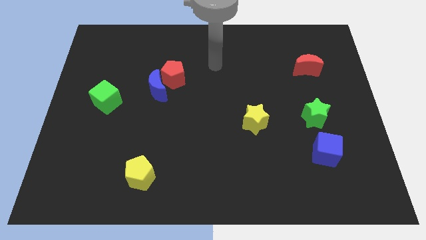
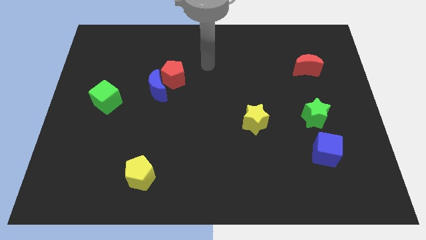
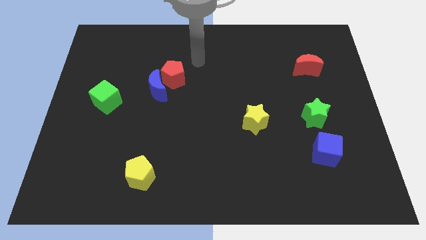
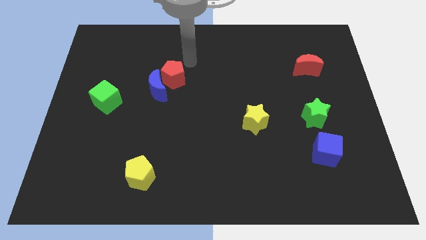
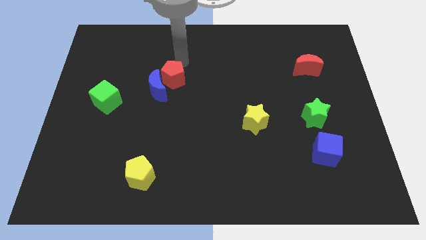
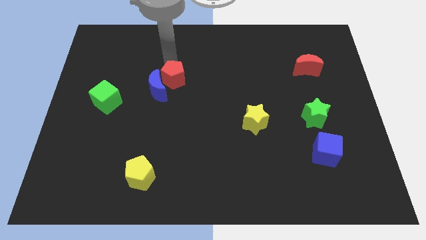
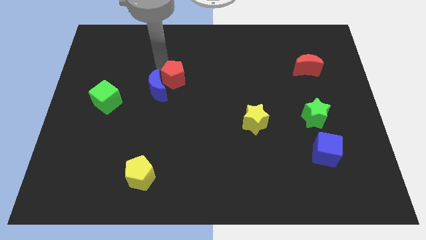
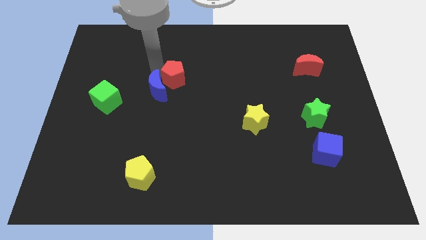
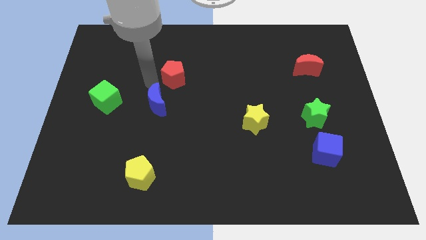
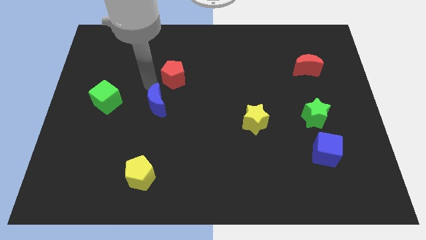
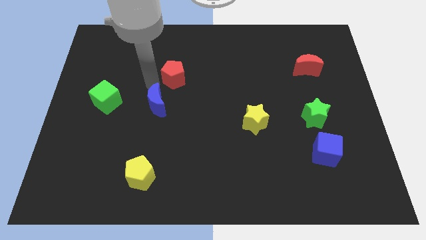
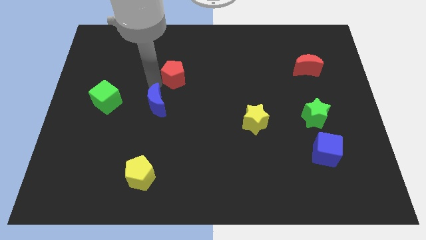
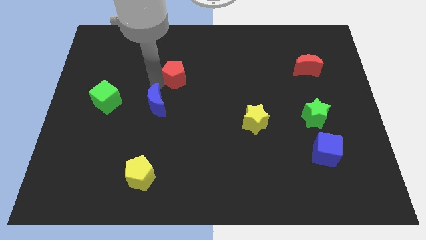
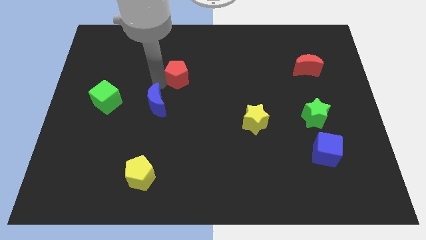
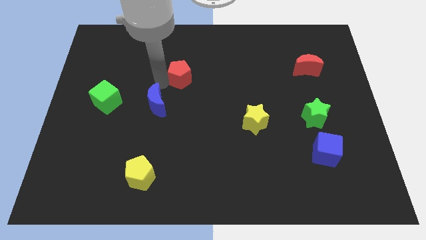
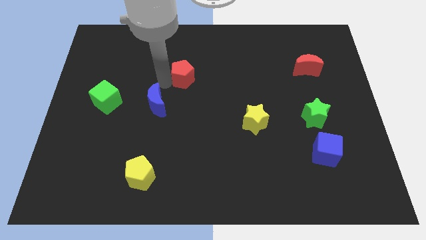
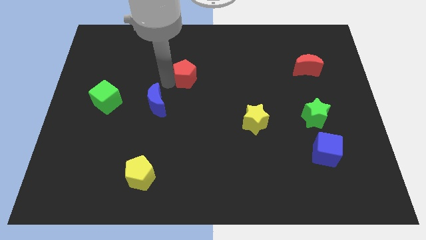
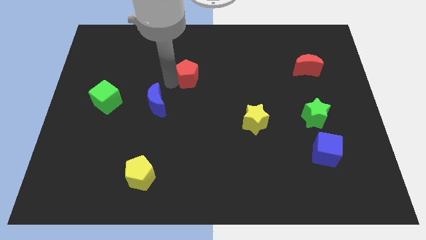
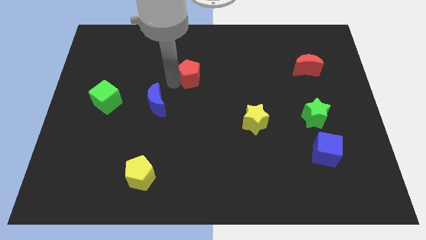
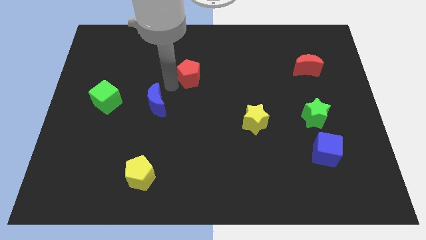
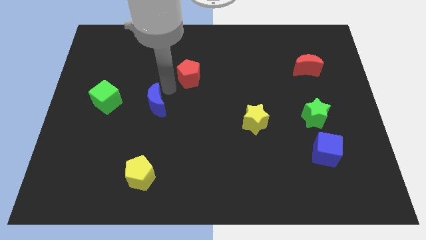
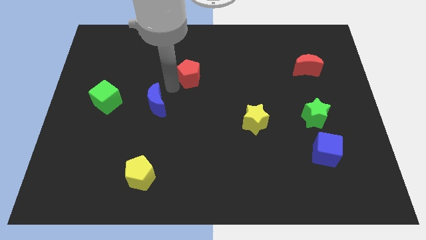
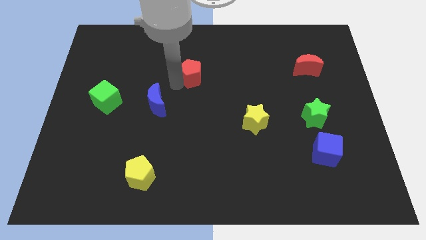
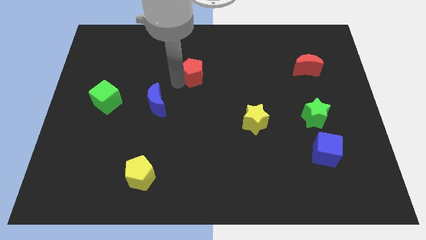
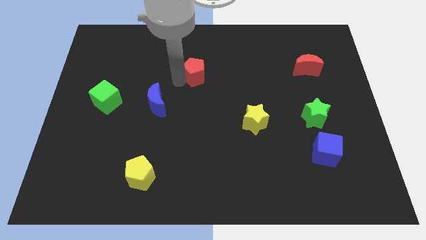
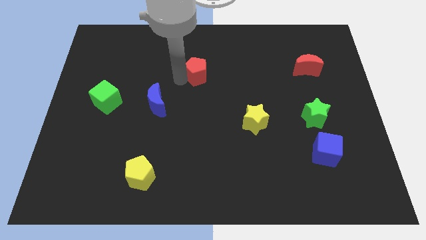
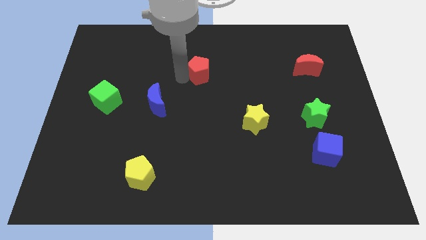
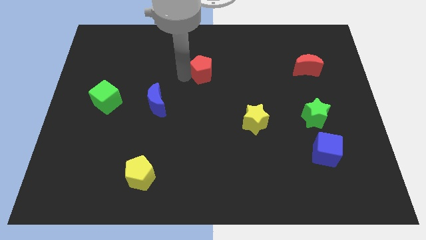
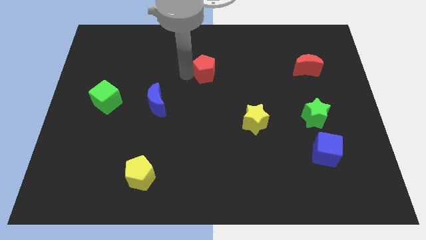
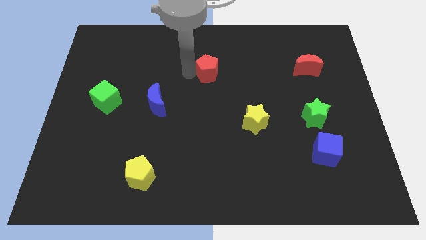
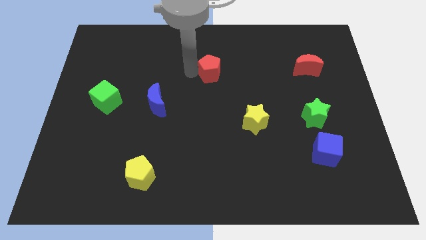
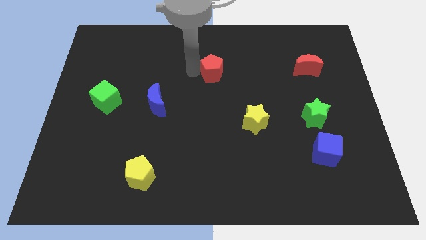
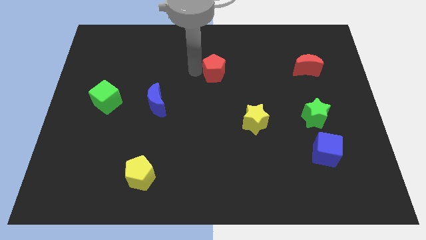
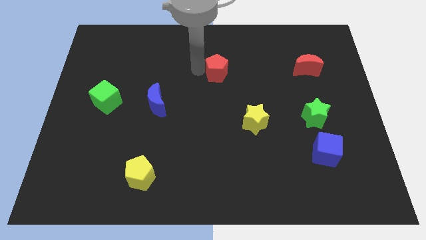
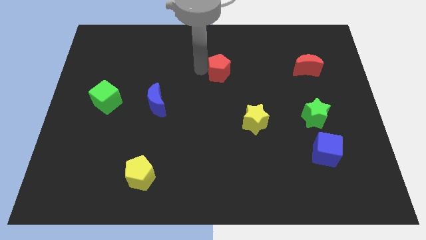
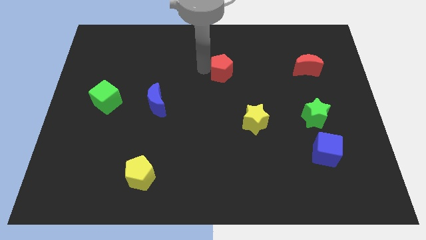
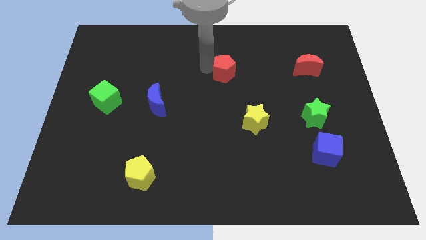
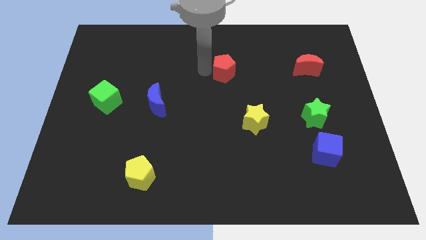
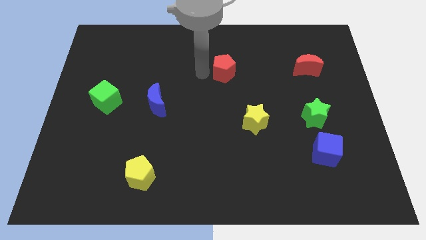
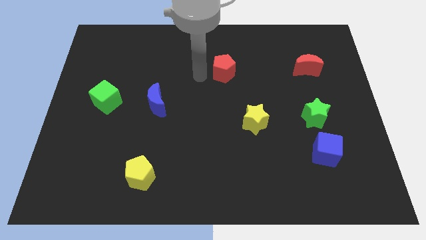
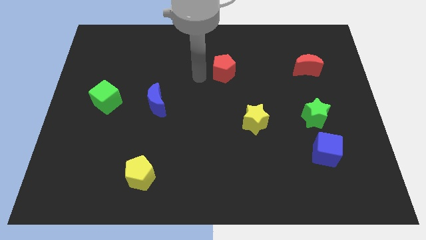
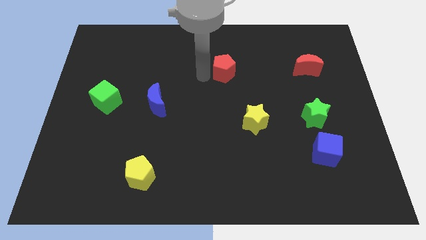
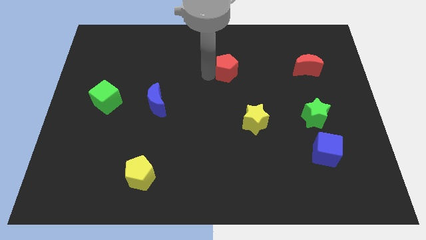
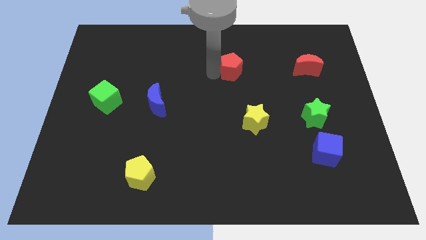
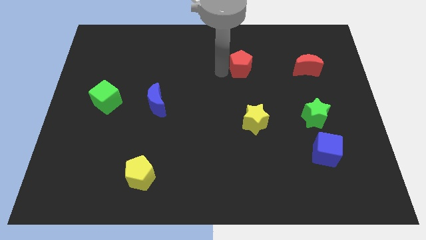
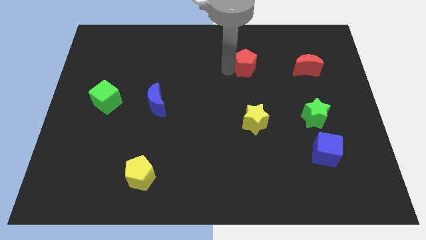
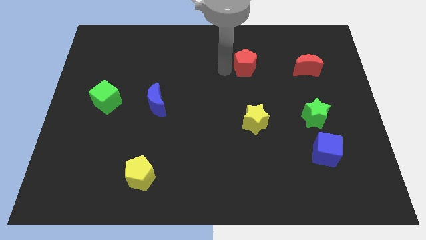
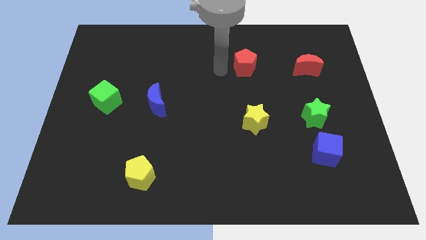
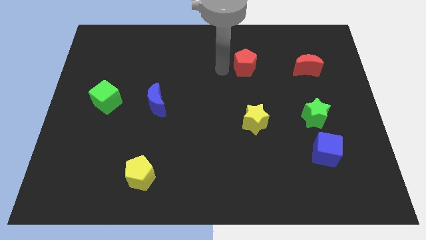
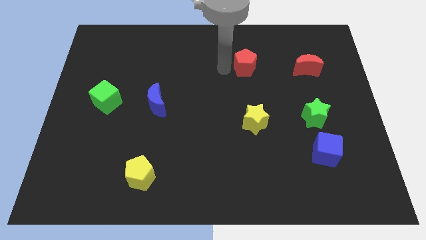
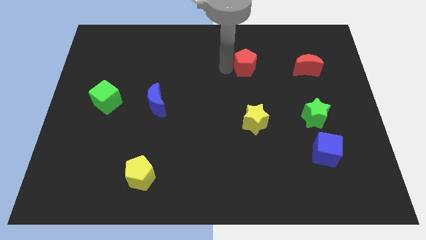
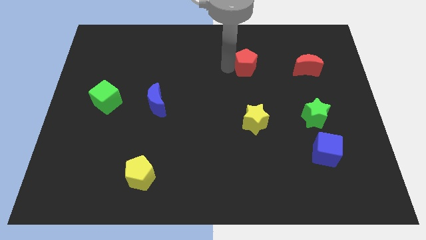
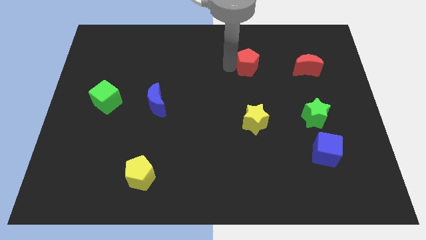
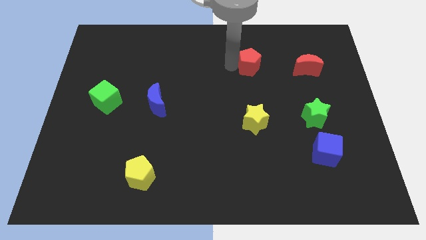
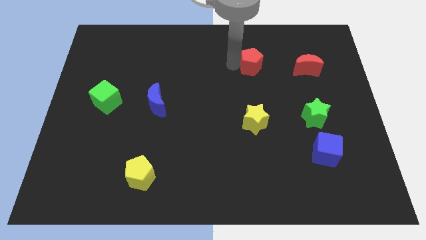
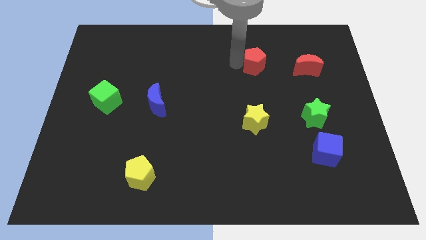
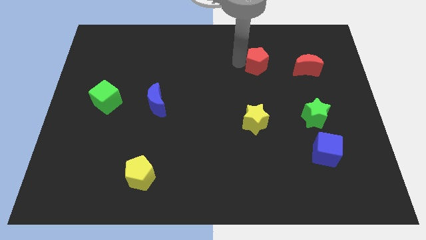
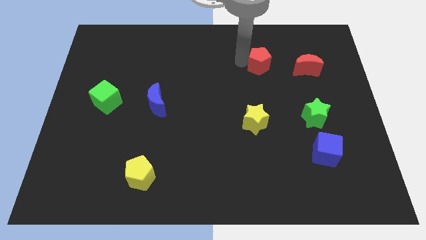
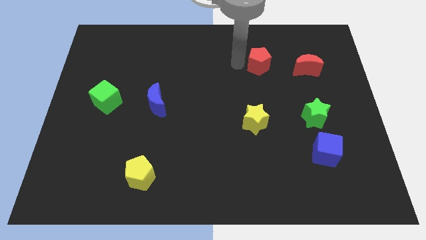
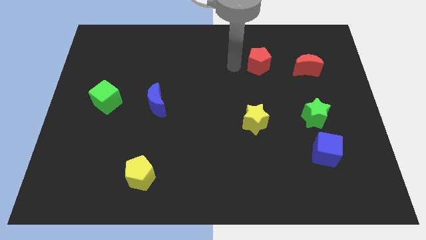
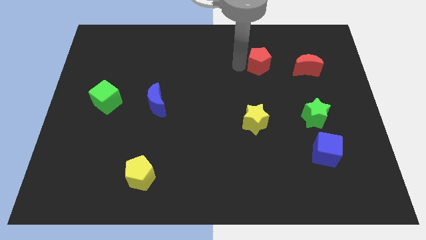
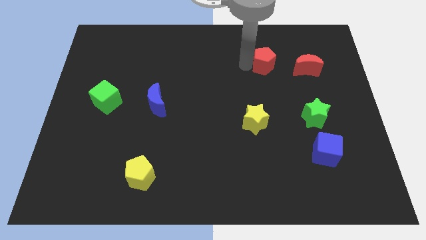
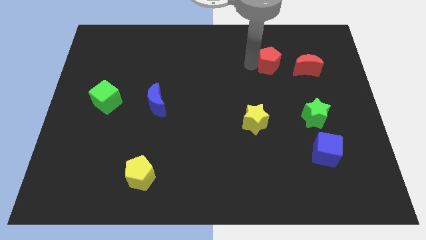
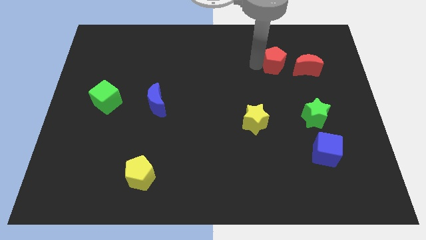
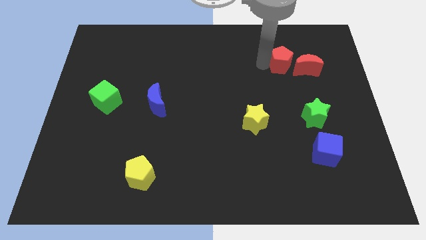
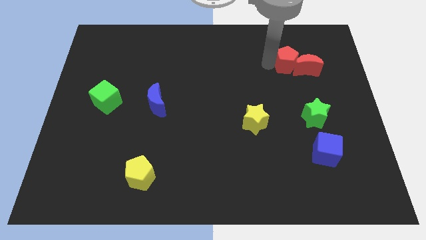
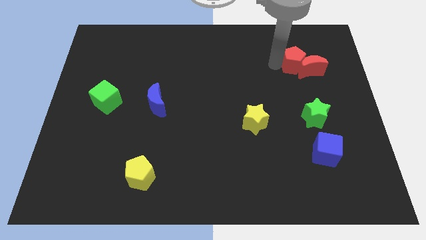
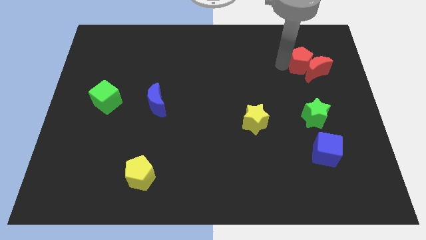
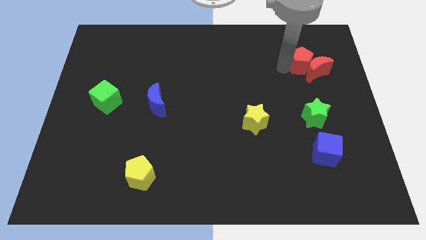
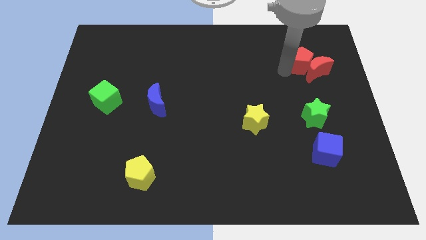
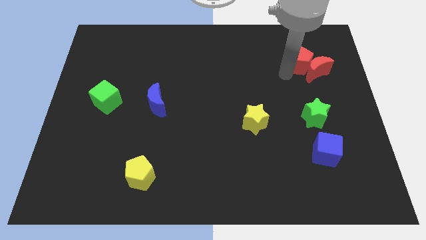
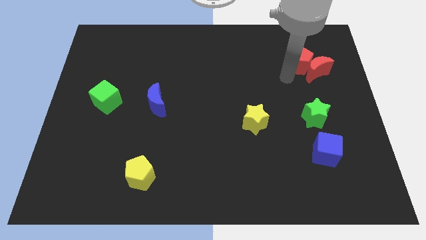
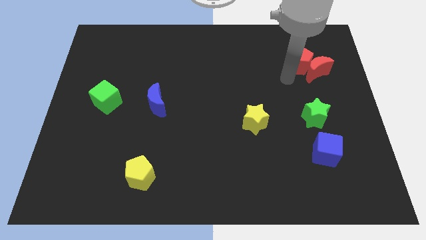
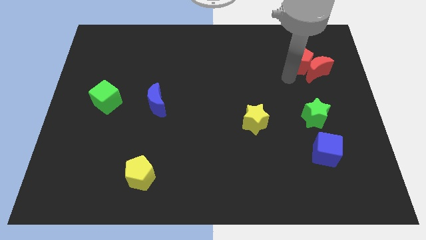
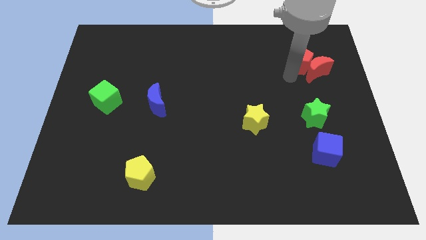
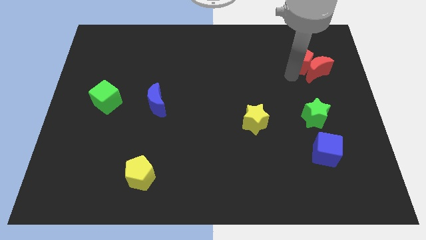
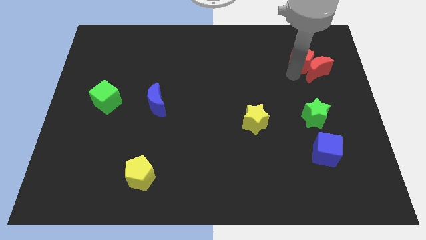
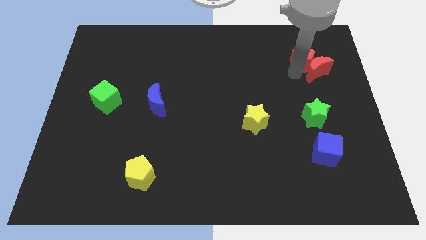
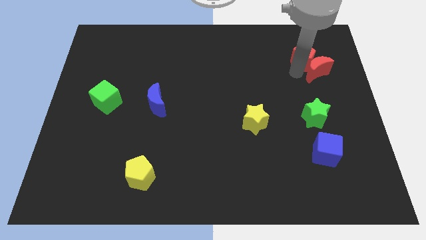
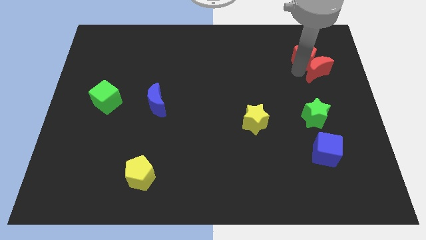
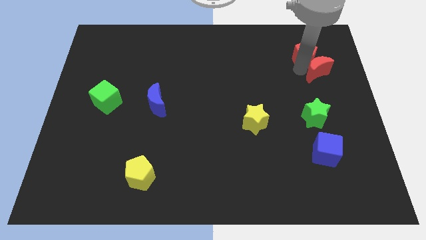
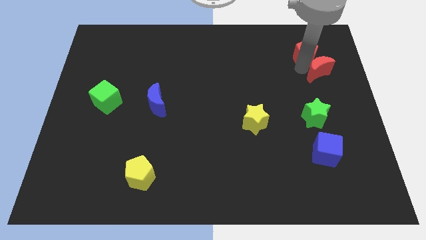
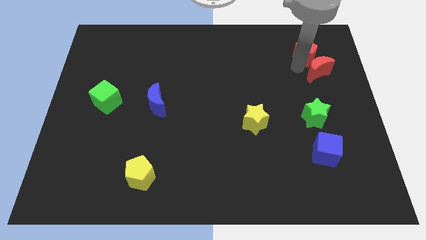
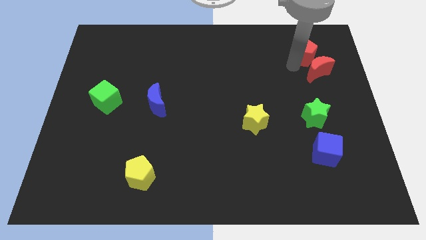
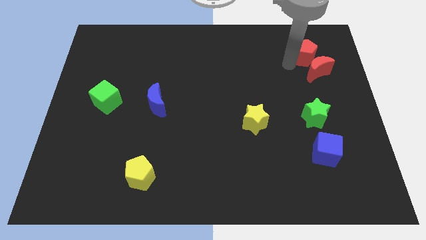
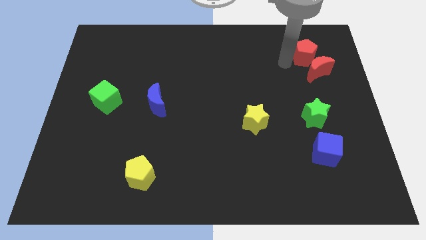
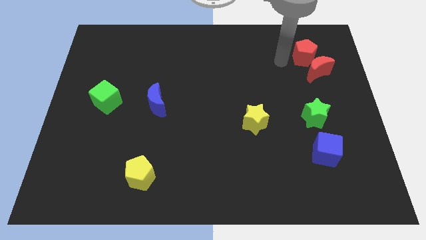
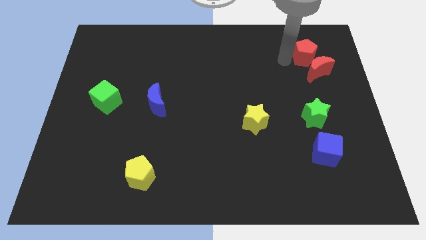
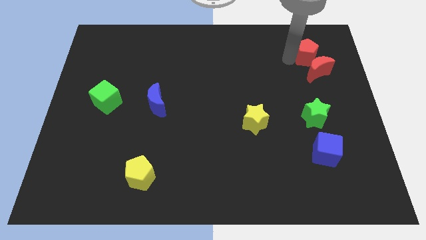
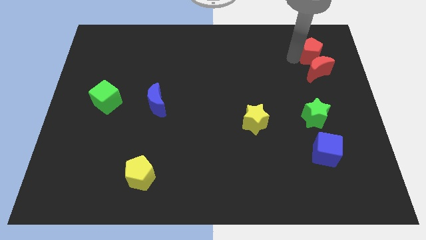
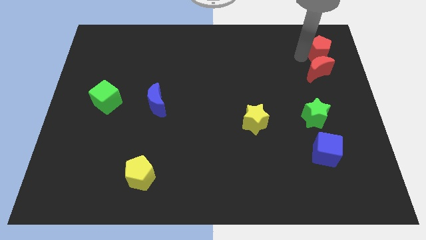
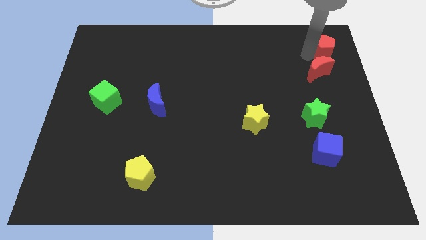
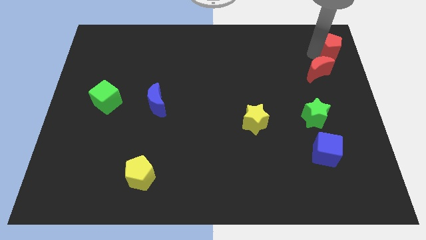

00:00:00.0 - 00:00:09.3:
push the red pentagon to the upper right corner
